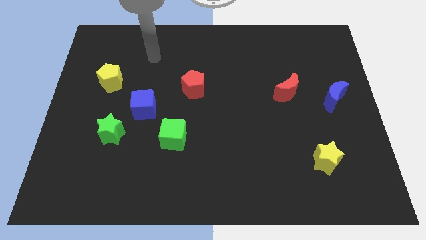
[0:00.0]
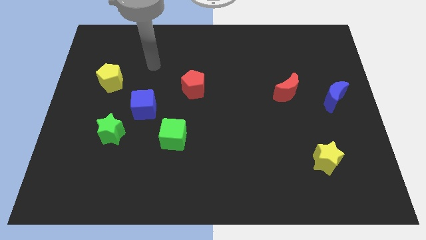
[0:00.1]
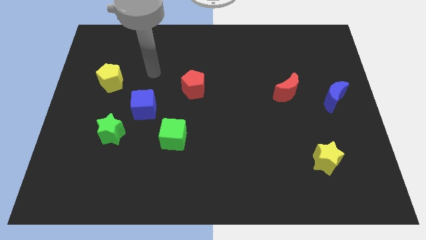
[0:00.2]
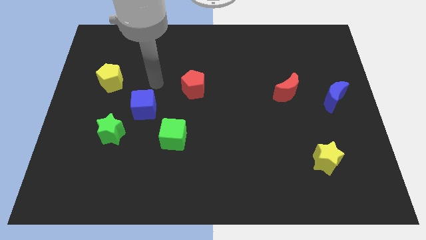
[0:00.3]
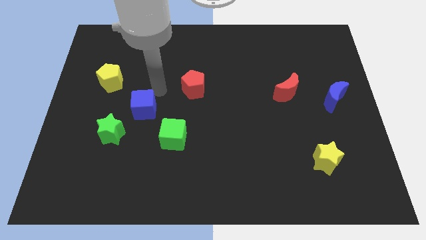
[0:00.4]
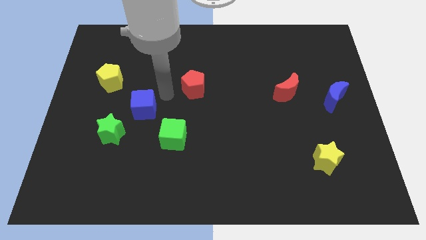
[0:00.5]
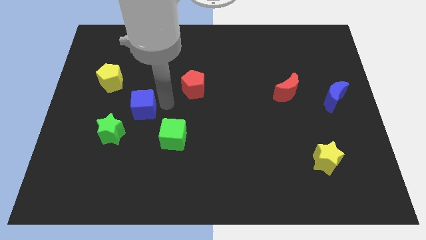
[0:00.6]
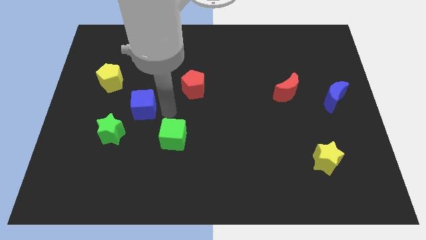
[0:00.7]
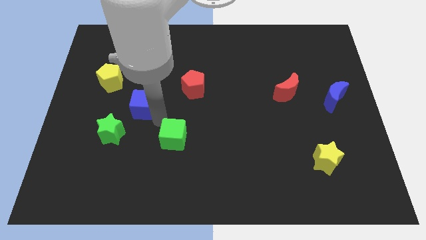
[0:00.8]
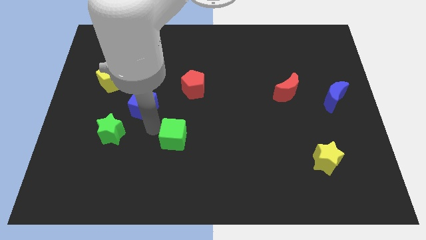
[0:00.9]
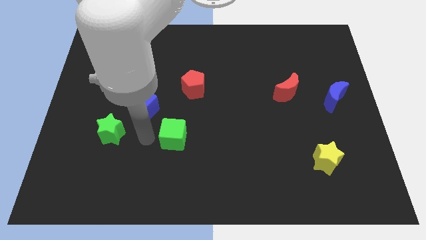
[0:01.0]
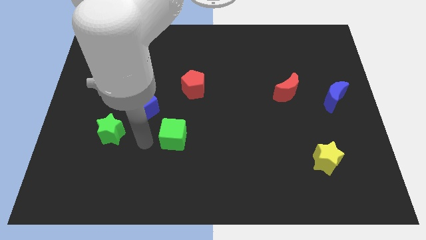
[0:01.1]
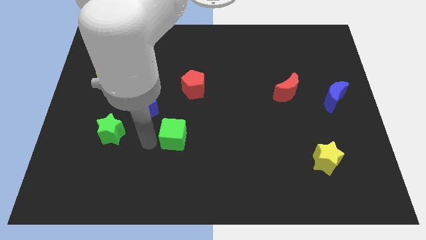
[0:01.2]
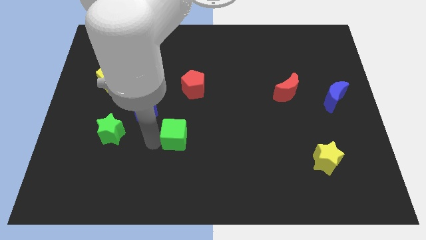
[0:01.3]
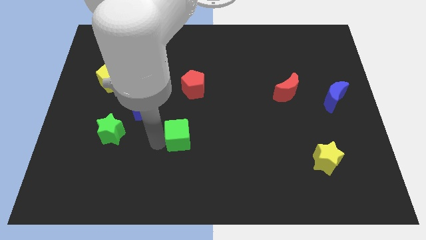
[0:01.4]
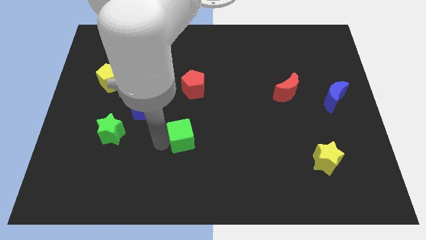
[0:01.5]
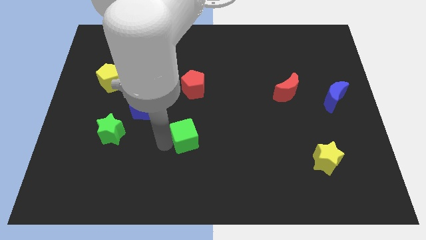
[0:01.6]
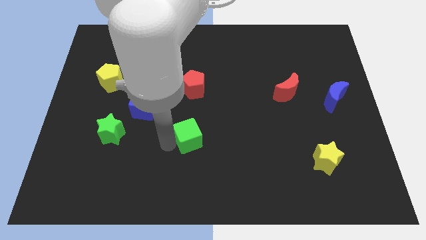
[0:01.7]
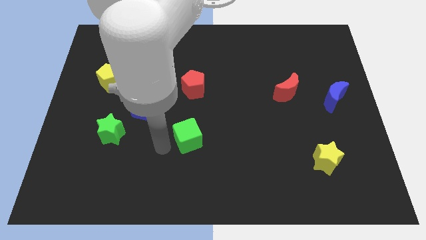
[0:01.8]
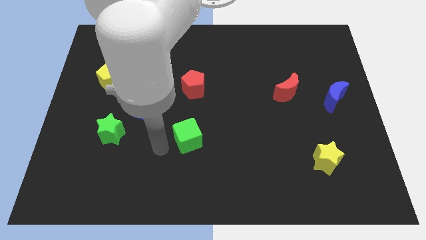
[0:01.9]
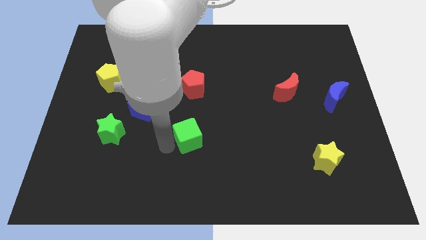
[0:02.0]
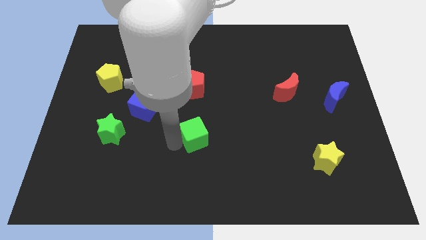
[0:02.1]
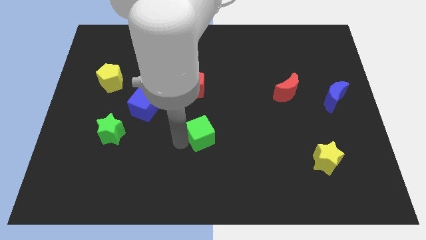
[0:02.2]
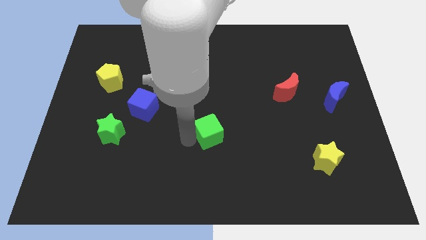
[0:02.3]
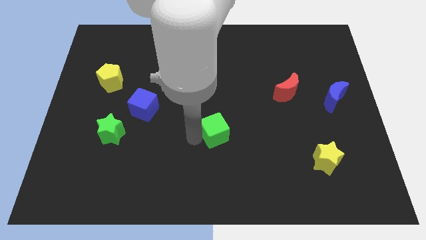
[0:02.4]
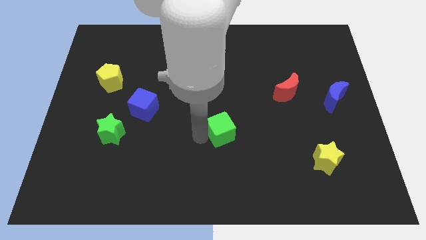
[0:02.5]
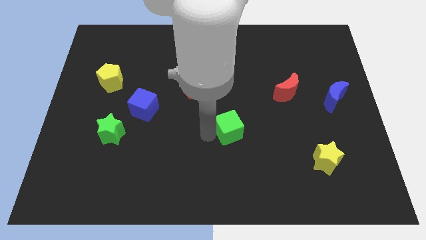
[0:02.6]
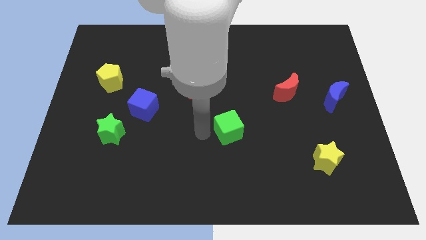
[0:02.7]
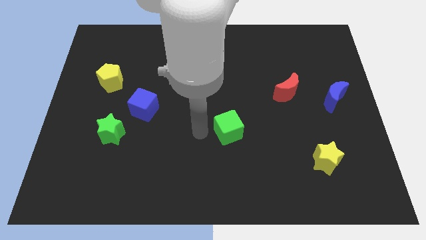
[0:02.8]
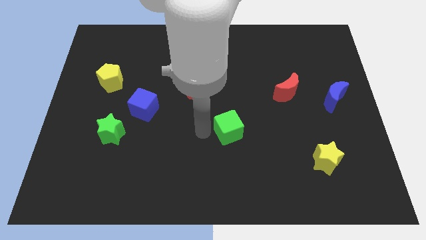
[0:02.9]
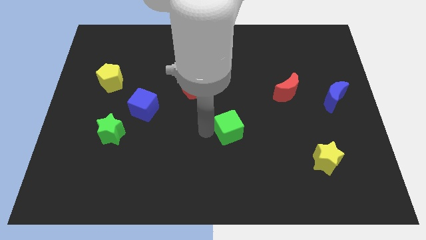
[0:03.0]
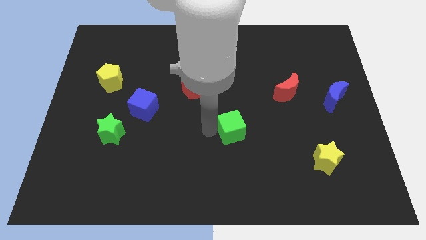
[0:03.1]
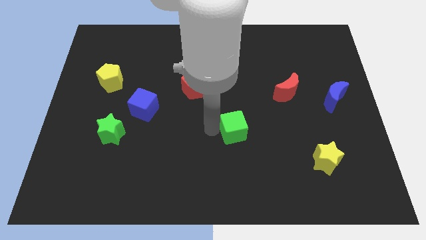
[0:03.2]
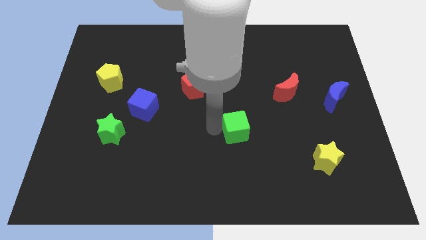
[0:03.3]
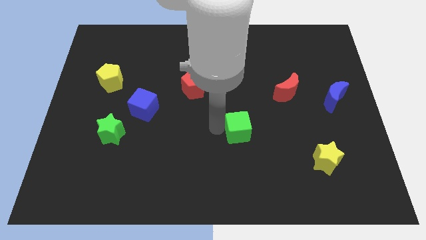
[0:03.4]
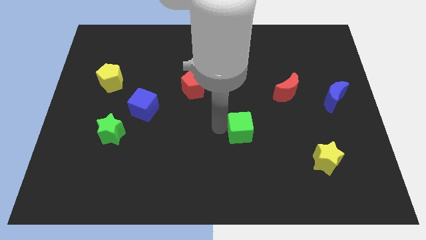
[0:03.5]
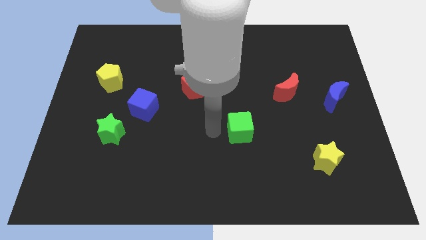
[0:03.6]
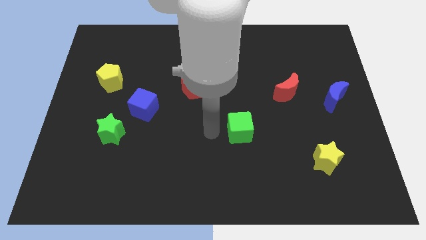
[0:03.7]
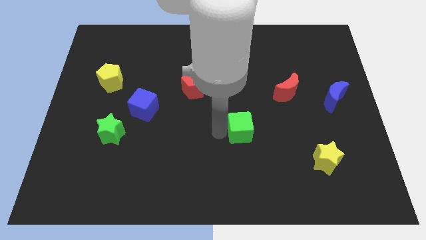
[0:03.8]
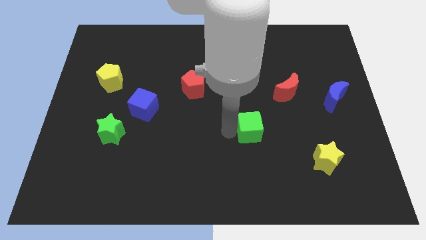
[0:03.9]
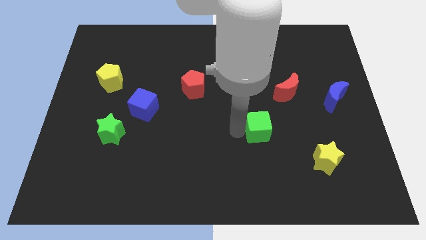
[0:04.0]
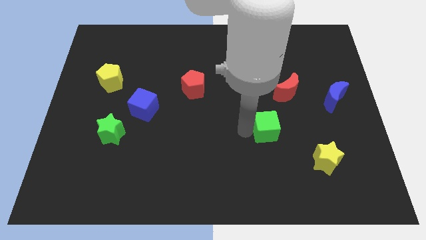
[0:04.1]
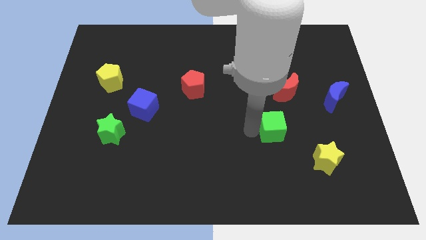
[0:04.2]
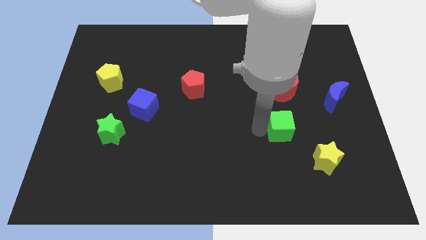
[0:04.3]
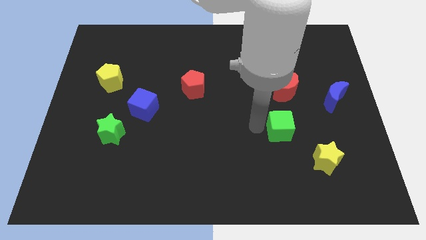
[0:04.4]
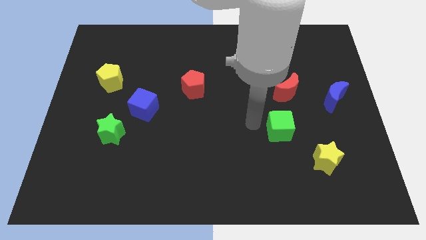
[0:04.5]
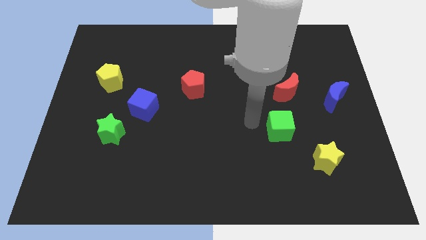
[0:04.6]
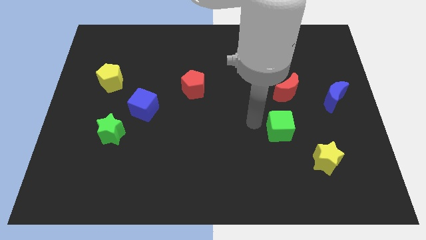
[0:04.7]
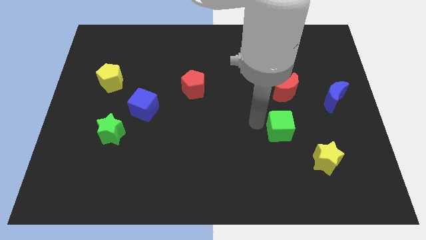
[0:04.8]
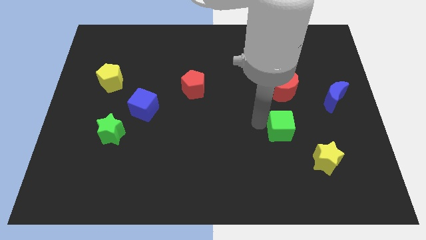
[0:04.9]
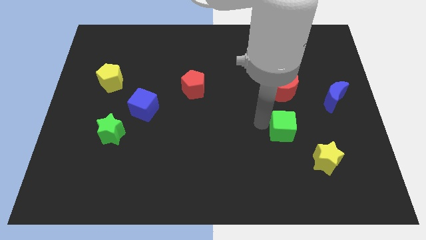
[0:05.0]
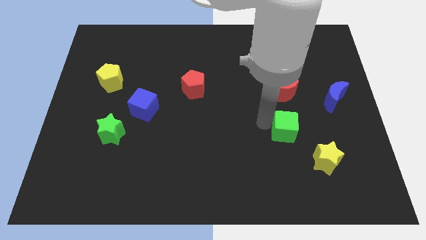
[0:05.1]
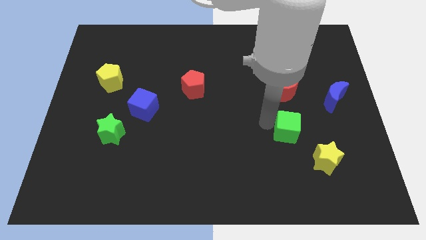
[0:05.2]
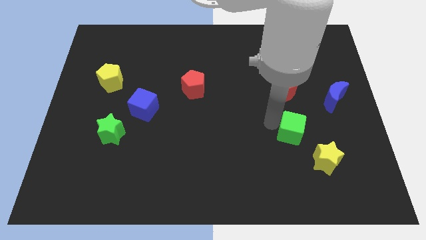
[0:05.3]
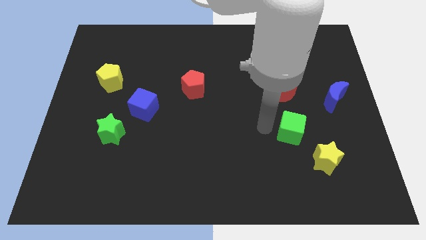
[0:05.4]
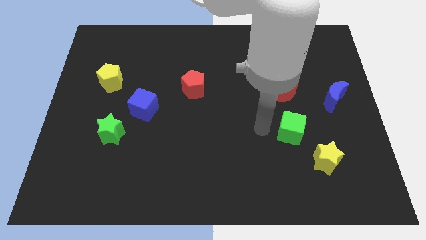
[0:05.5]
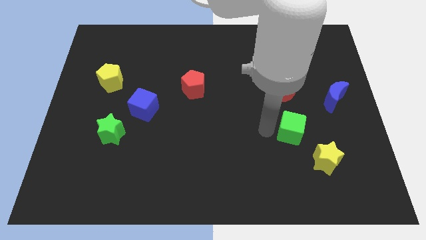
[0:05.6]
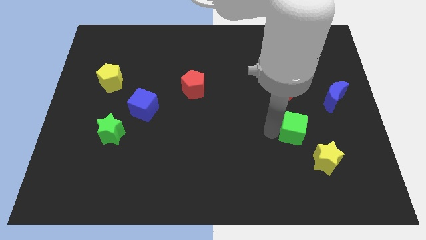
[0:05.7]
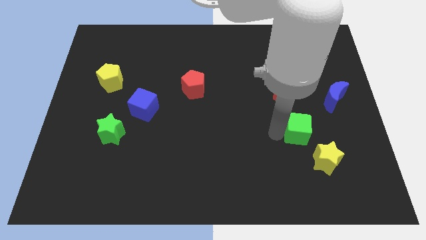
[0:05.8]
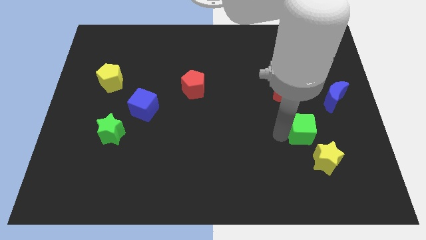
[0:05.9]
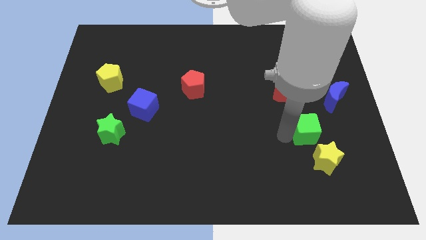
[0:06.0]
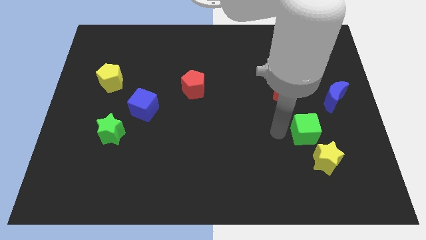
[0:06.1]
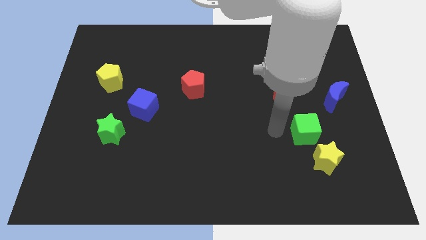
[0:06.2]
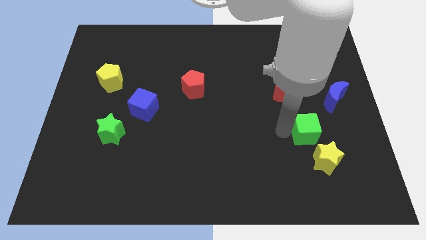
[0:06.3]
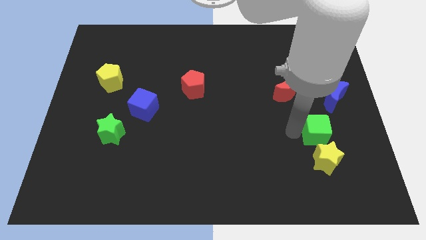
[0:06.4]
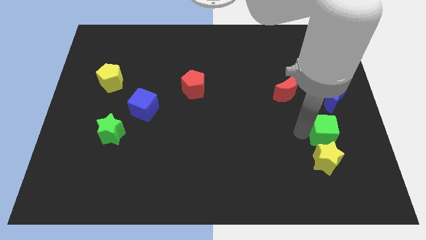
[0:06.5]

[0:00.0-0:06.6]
move the green cube to the bottom side of the blue moon
